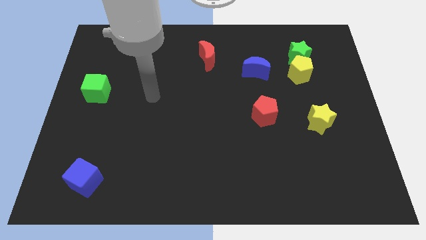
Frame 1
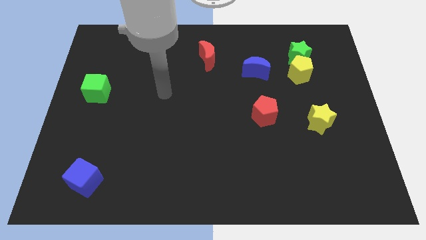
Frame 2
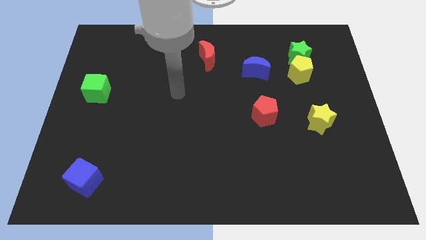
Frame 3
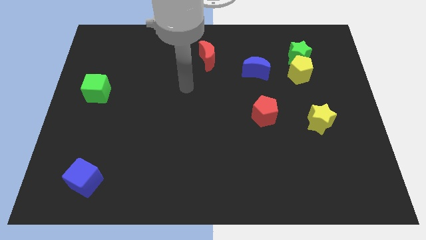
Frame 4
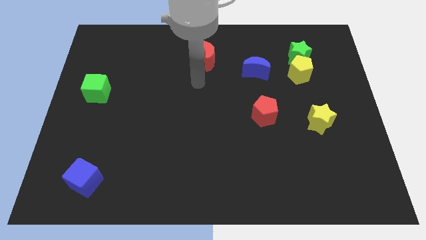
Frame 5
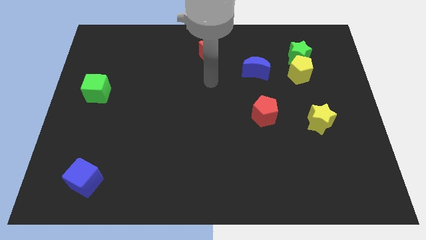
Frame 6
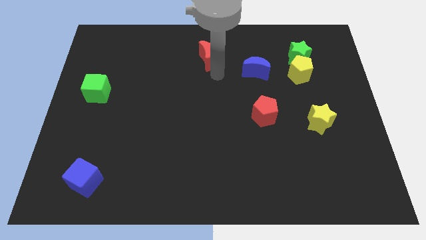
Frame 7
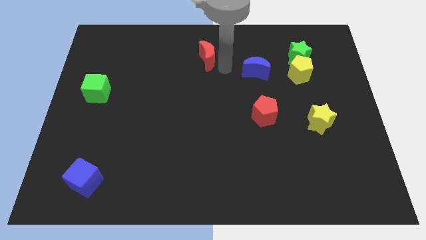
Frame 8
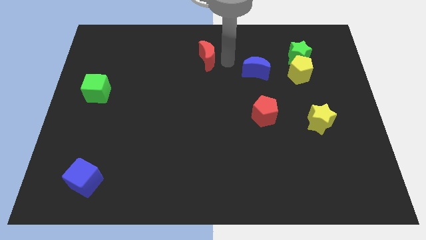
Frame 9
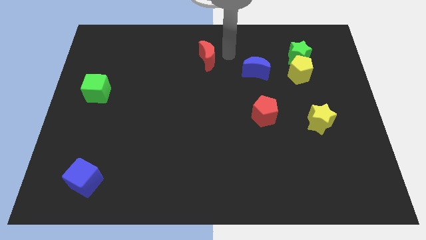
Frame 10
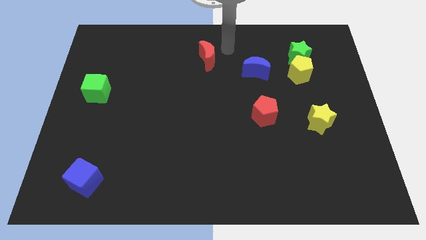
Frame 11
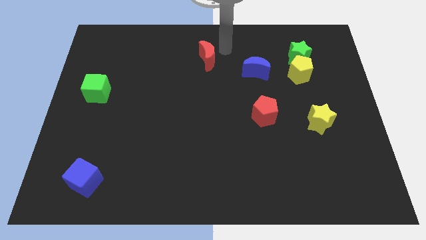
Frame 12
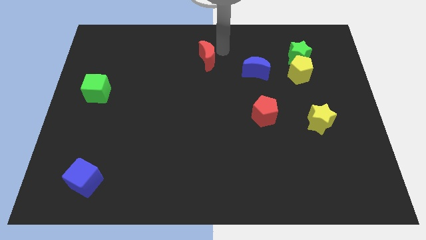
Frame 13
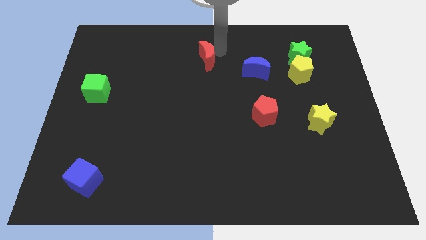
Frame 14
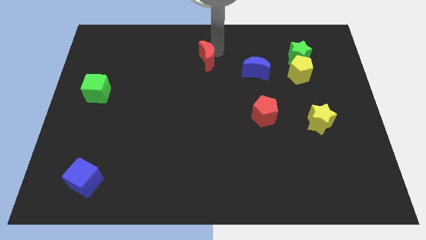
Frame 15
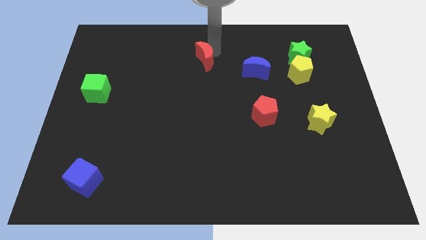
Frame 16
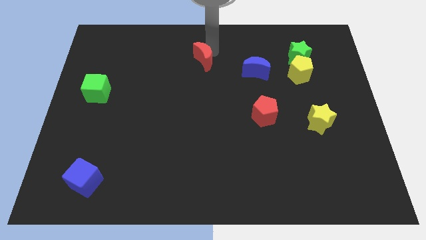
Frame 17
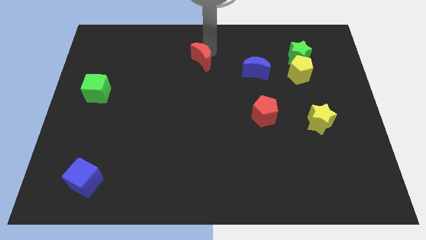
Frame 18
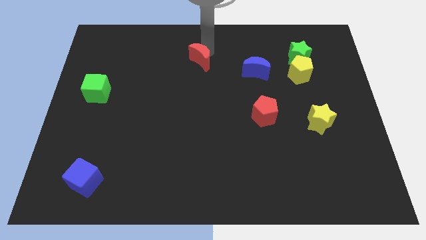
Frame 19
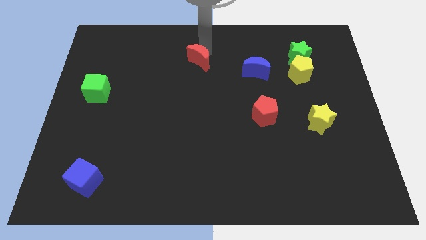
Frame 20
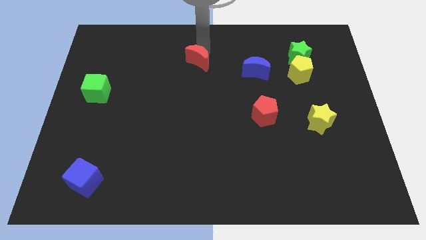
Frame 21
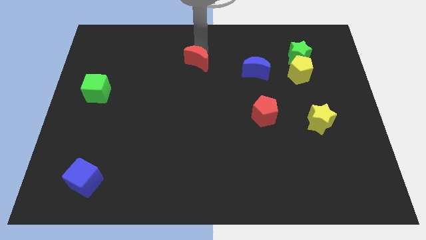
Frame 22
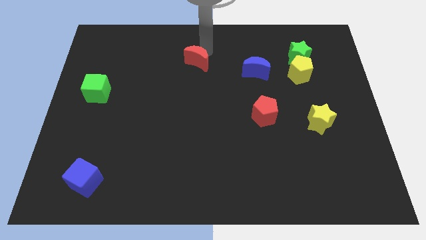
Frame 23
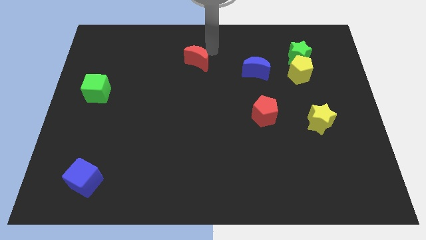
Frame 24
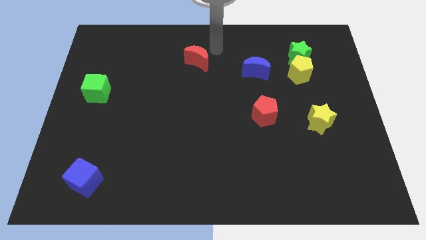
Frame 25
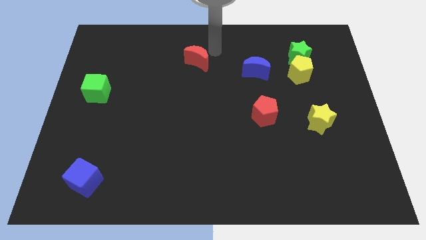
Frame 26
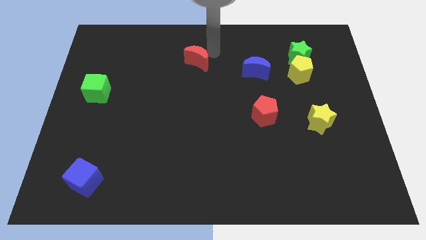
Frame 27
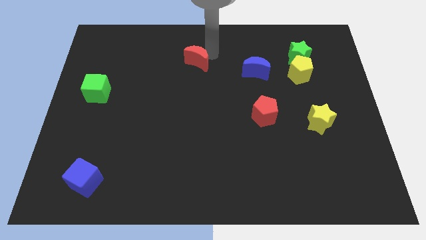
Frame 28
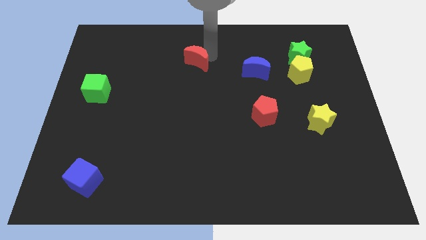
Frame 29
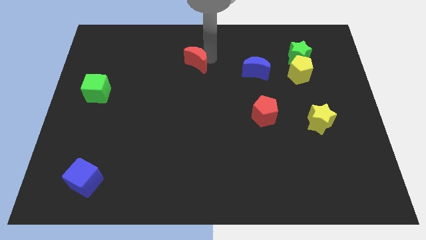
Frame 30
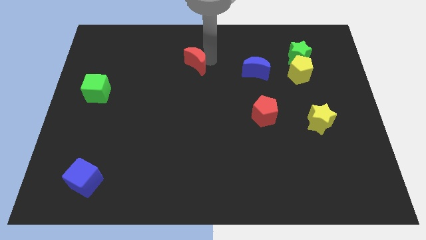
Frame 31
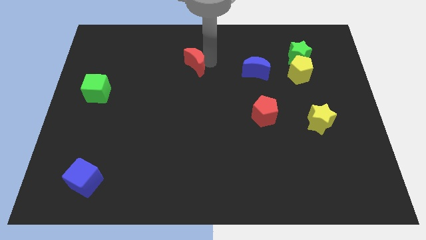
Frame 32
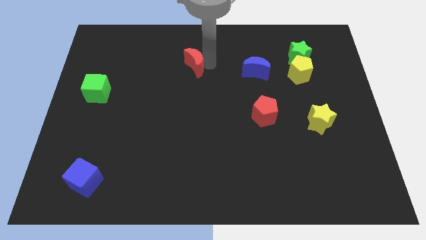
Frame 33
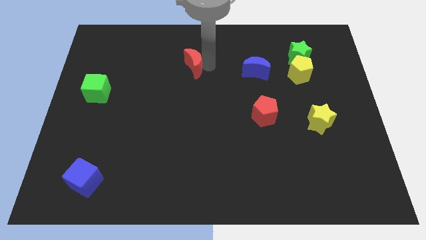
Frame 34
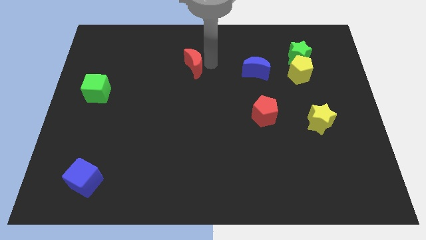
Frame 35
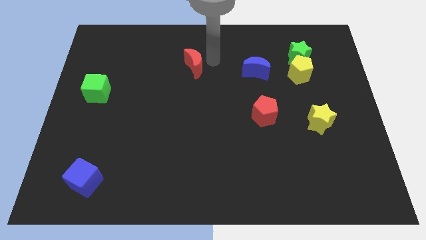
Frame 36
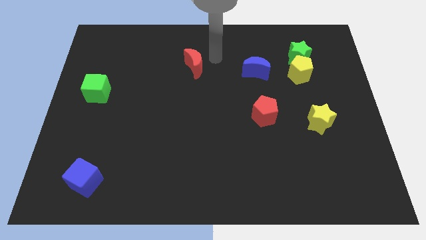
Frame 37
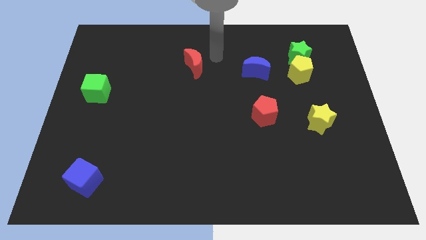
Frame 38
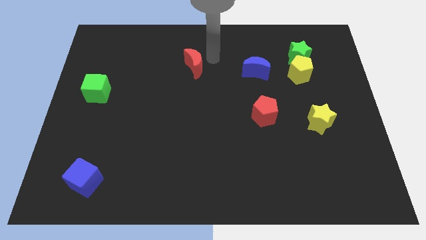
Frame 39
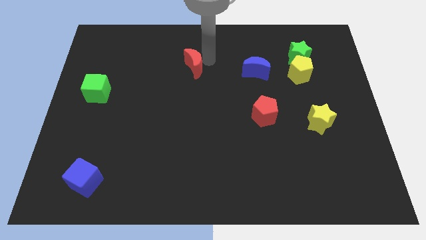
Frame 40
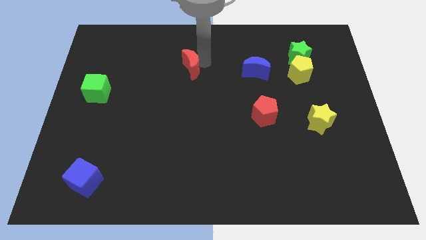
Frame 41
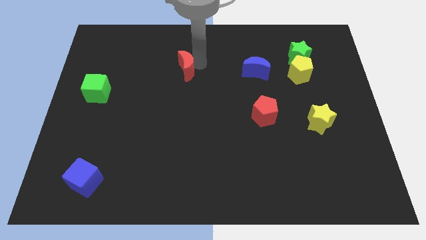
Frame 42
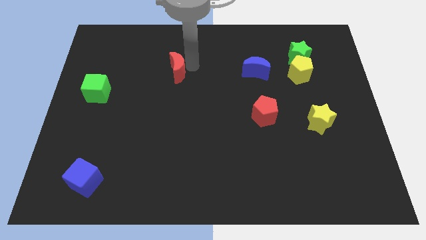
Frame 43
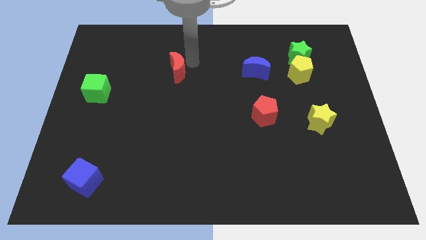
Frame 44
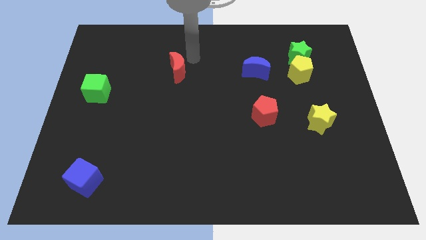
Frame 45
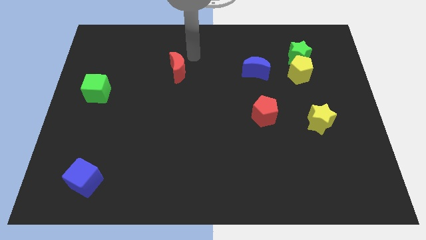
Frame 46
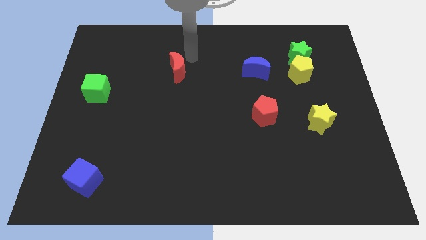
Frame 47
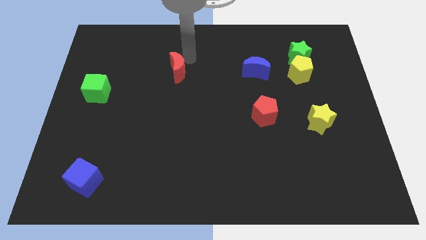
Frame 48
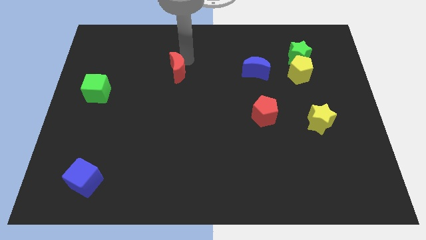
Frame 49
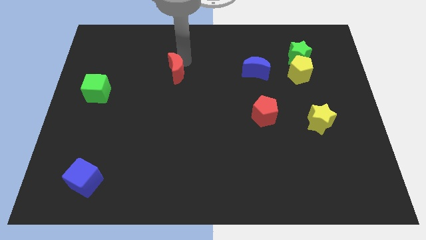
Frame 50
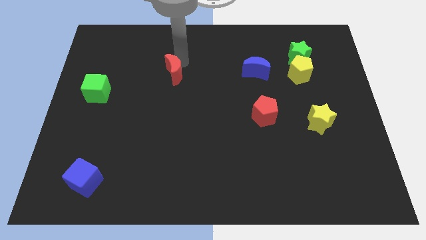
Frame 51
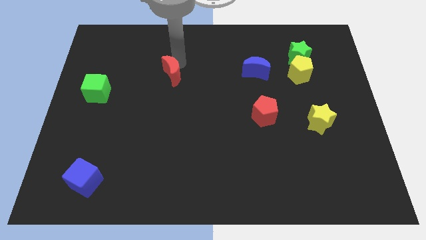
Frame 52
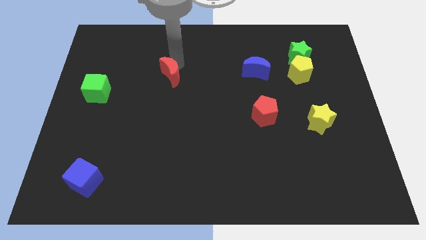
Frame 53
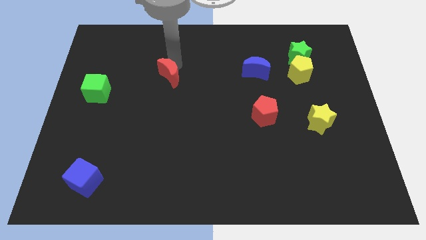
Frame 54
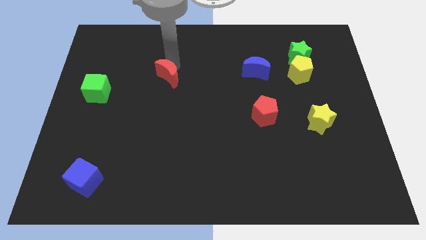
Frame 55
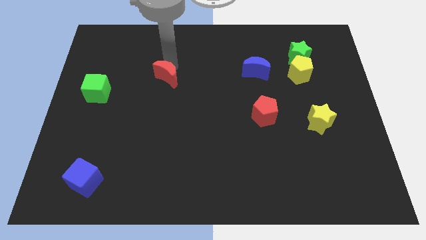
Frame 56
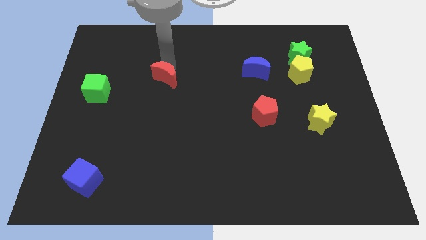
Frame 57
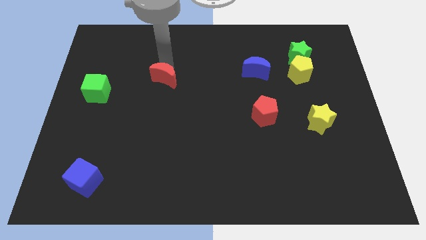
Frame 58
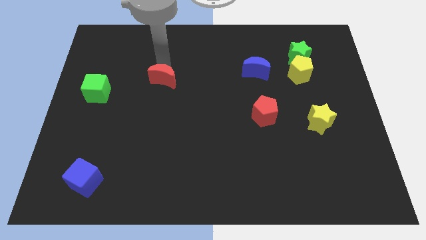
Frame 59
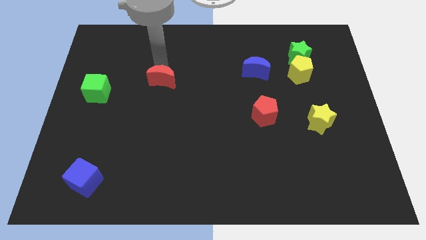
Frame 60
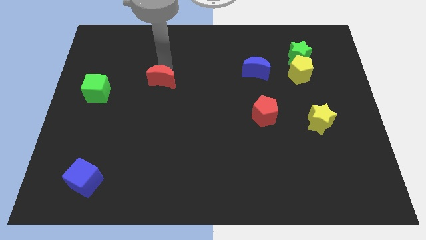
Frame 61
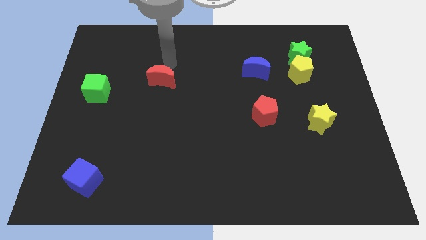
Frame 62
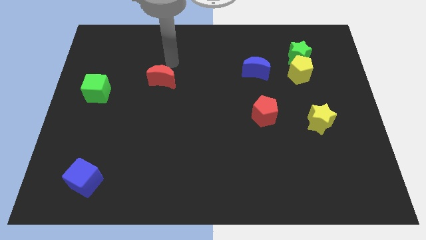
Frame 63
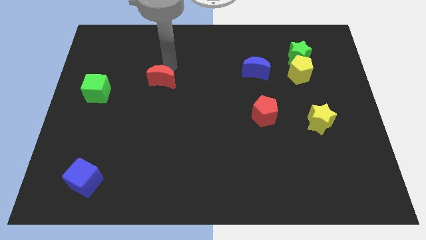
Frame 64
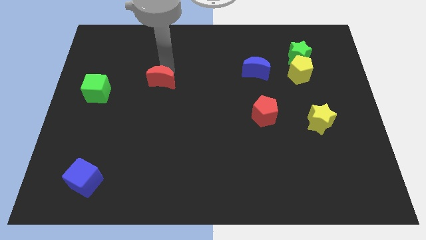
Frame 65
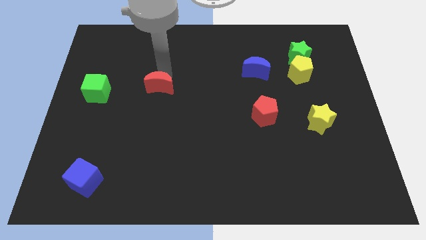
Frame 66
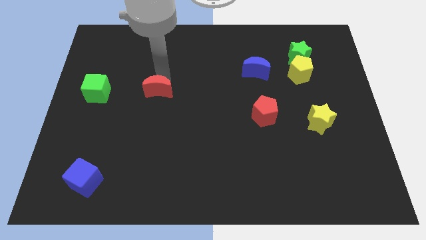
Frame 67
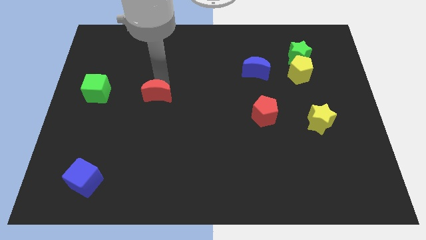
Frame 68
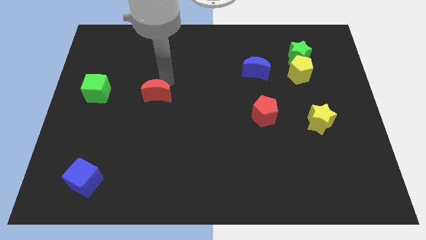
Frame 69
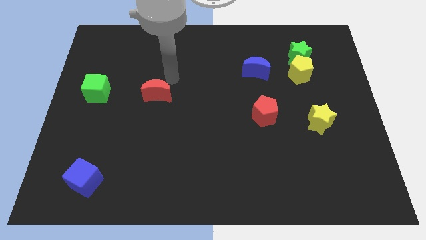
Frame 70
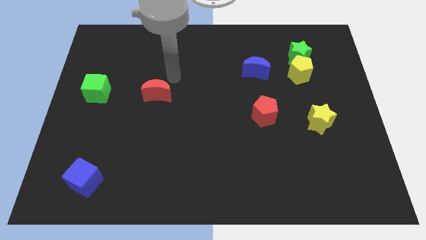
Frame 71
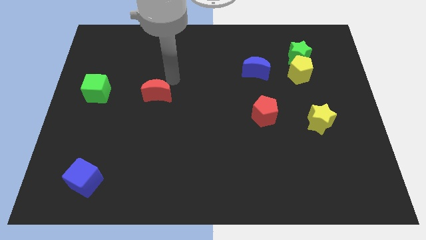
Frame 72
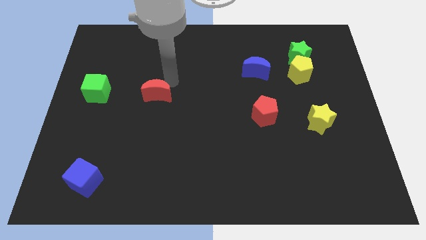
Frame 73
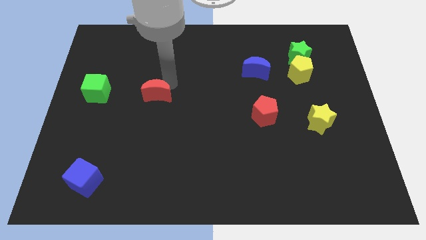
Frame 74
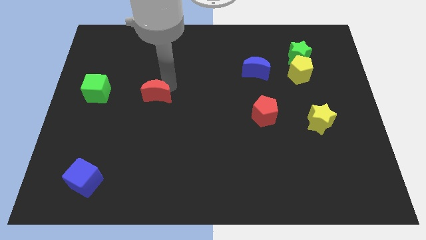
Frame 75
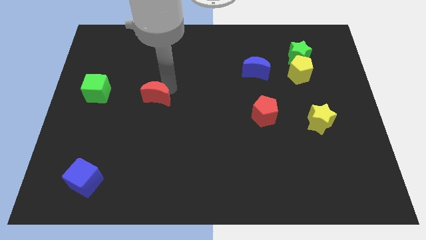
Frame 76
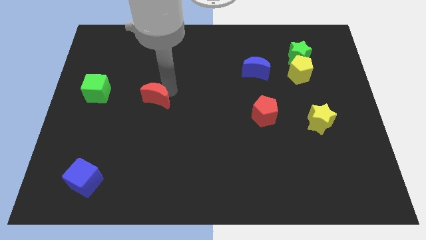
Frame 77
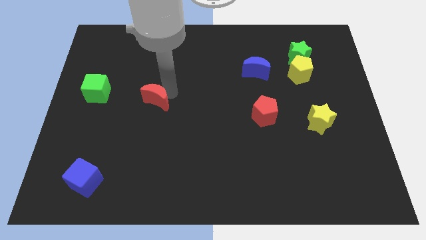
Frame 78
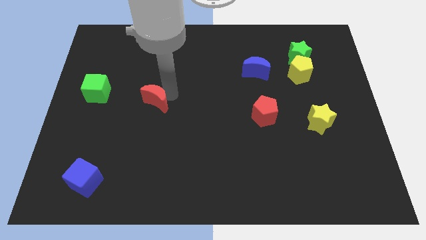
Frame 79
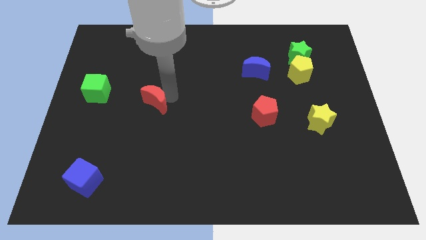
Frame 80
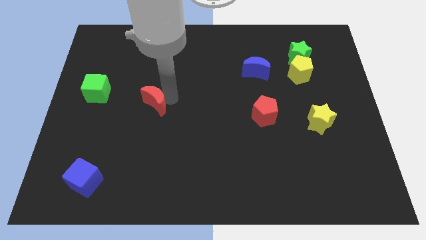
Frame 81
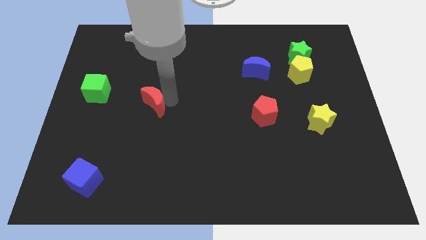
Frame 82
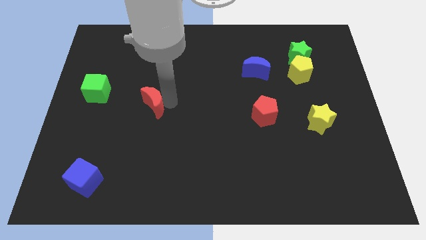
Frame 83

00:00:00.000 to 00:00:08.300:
move the red moon diagonally down and left
